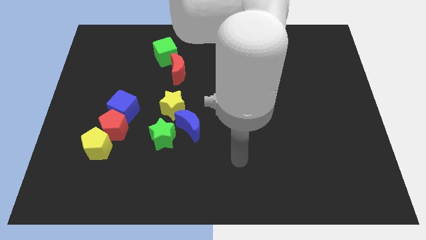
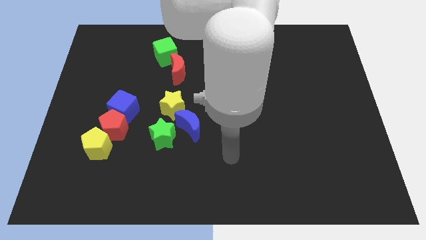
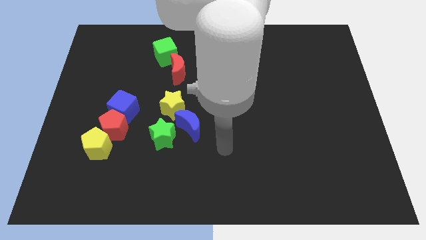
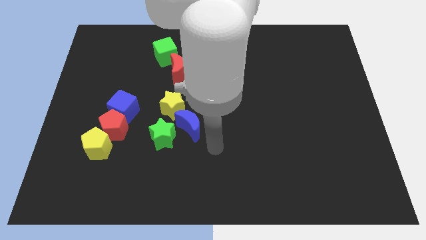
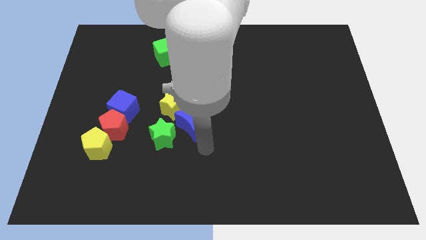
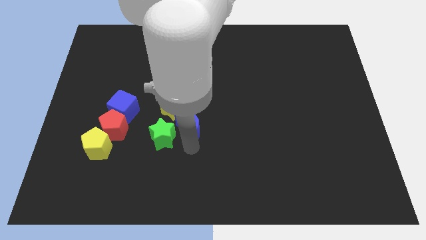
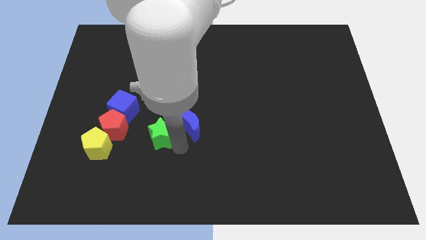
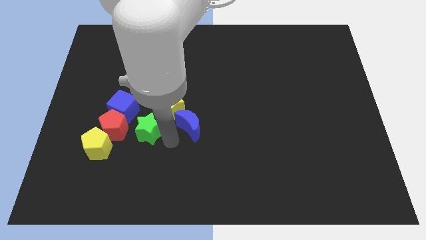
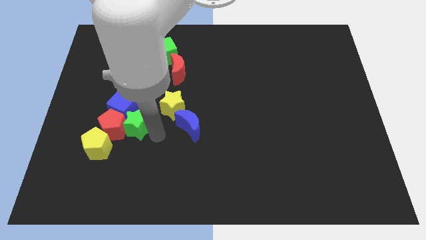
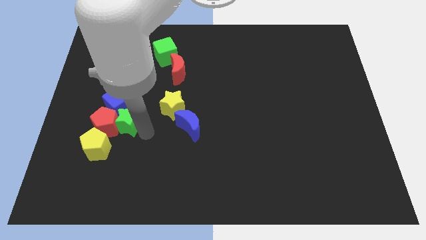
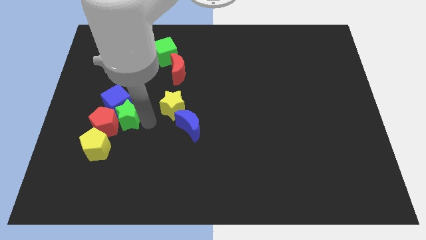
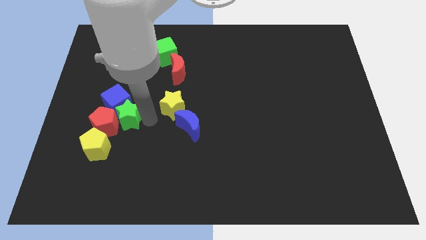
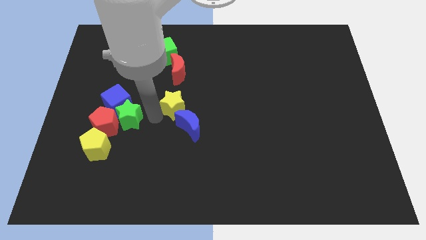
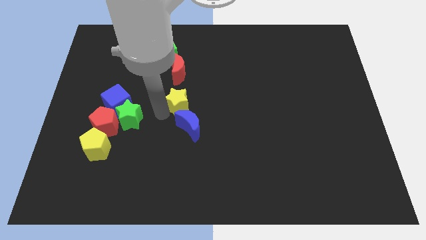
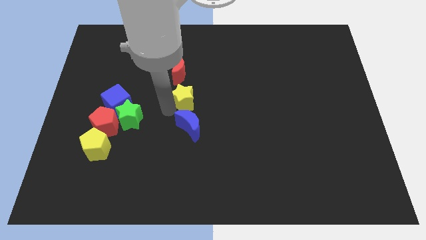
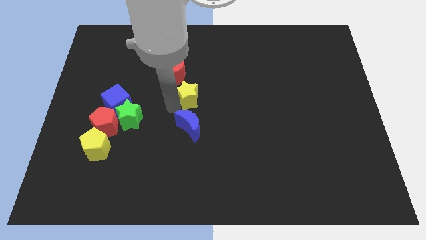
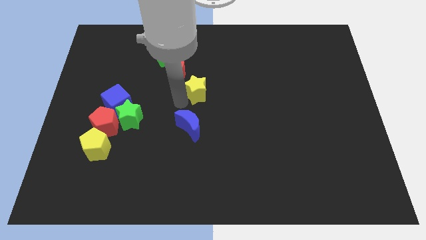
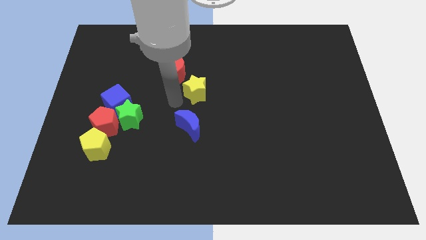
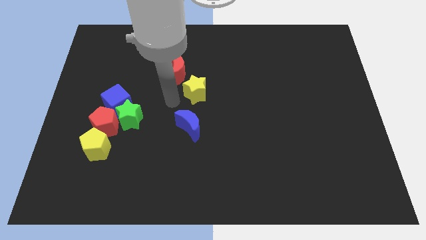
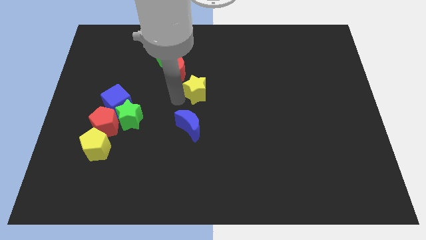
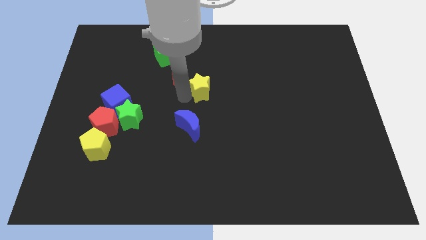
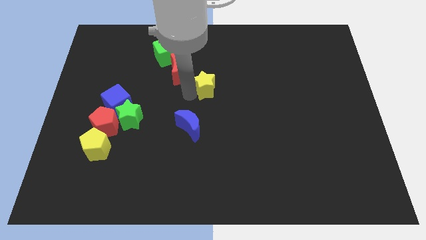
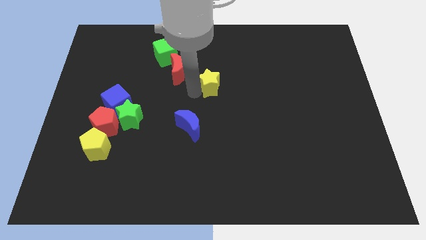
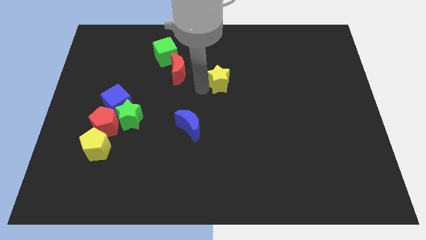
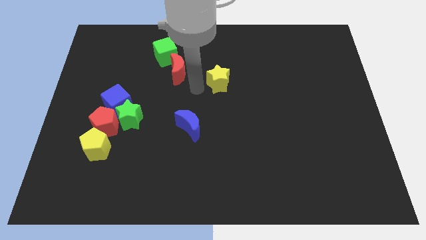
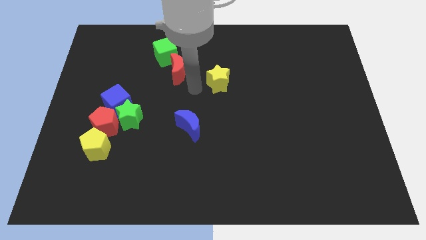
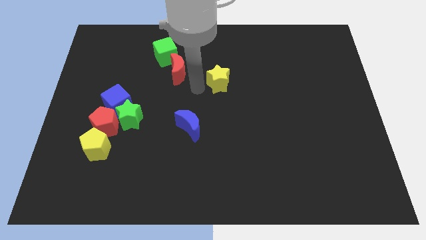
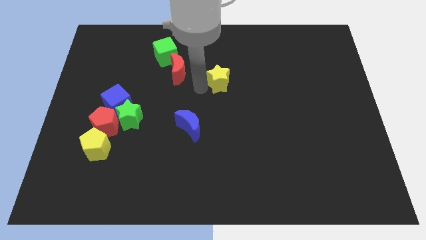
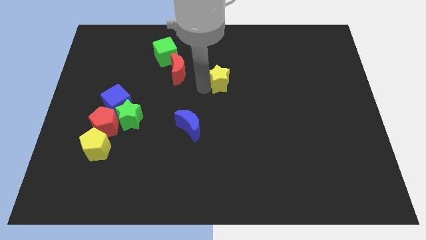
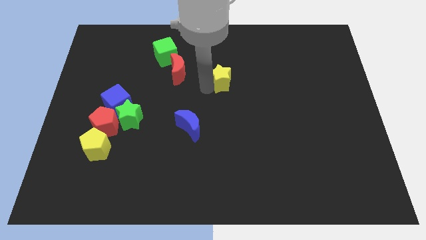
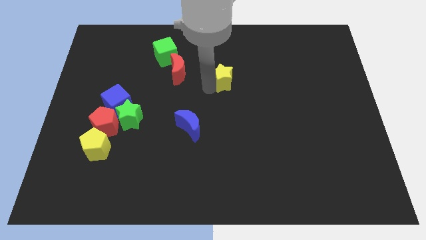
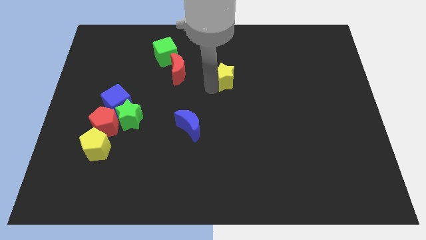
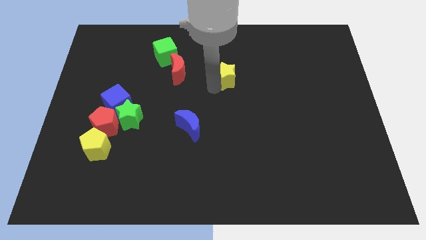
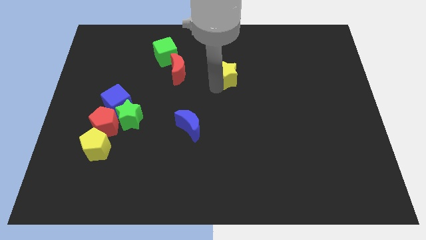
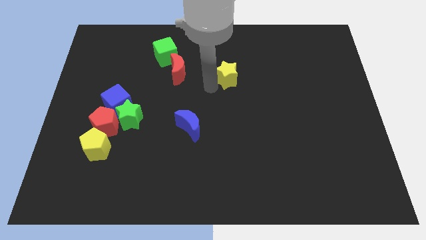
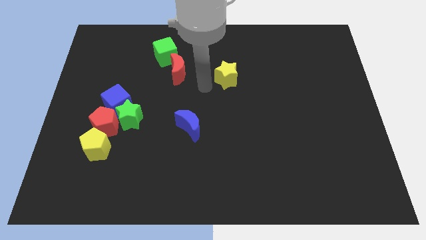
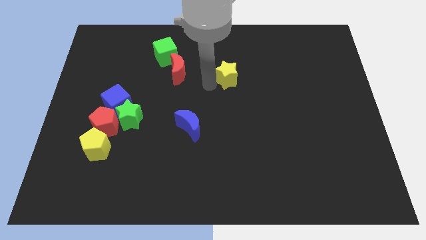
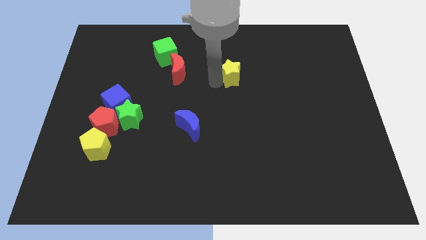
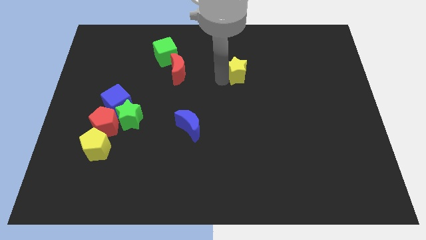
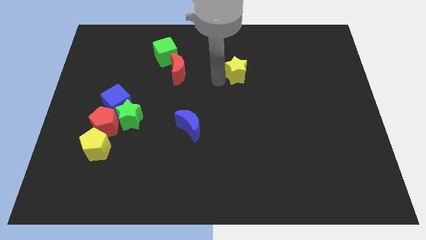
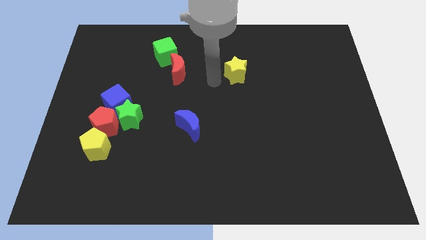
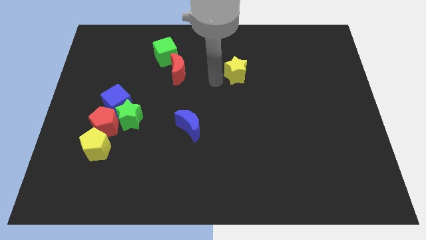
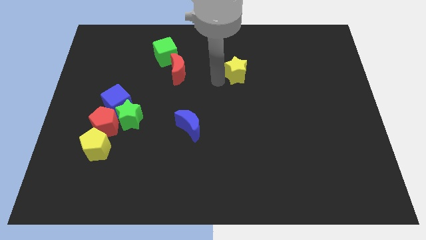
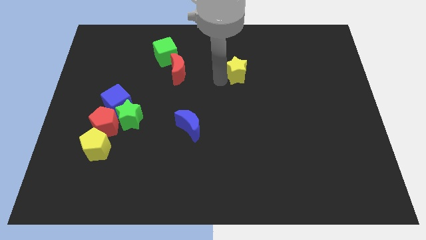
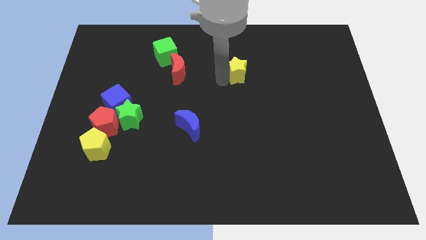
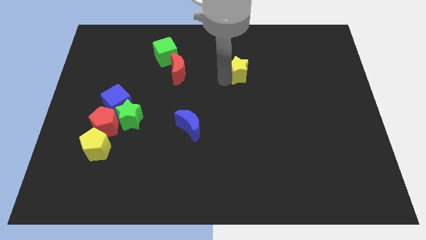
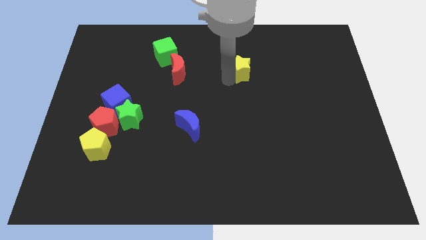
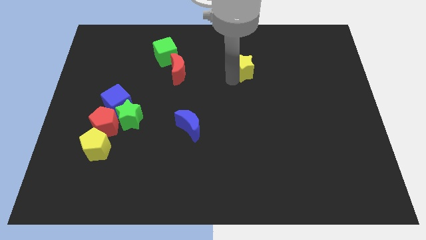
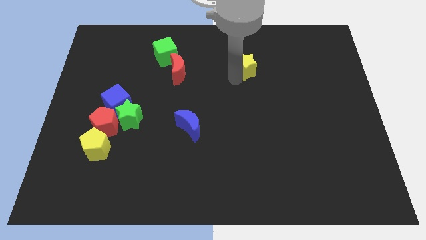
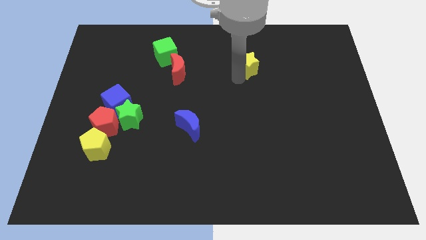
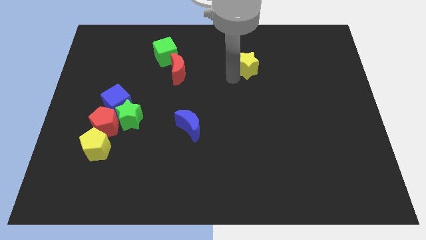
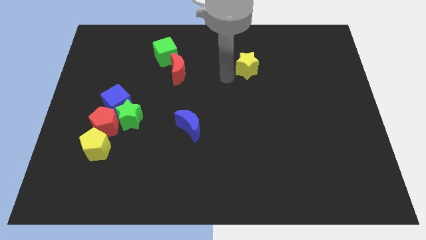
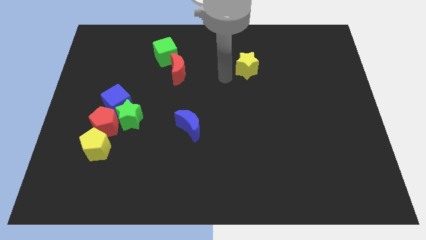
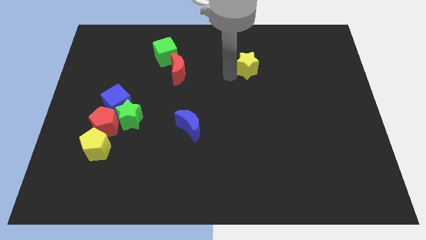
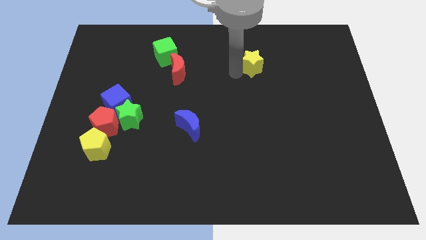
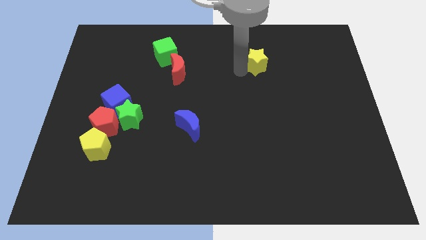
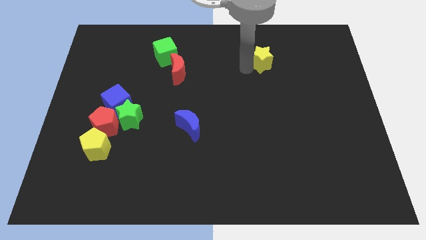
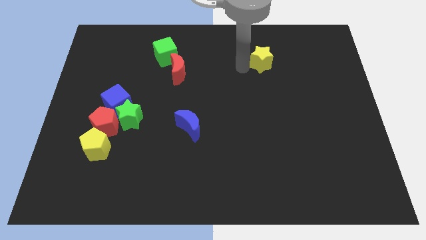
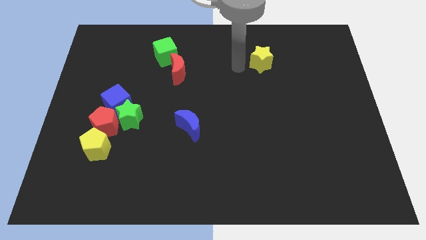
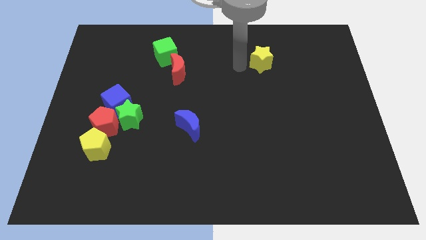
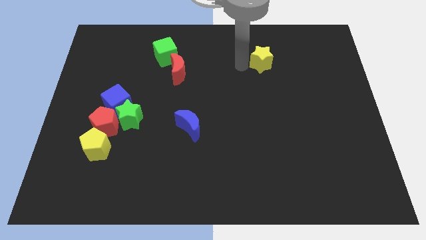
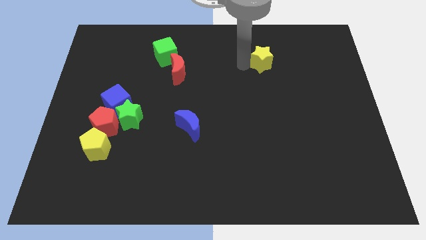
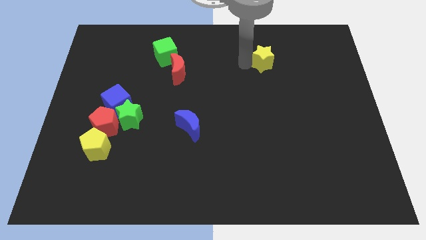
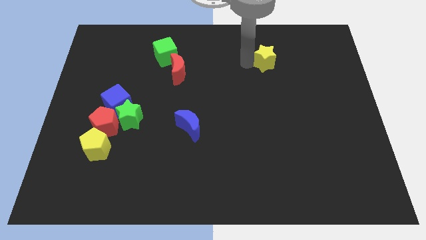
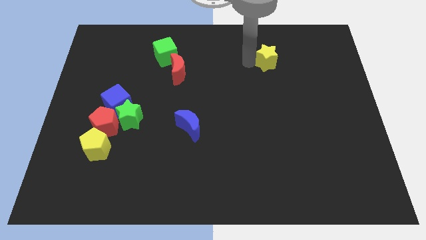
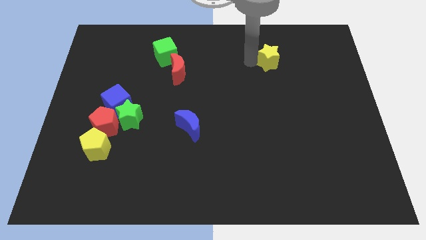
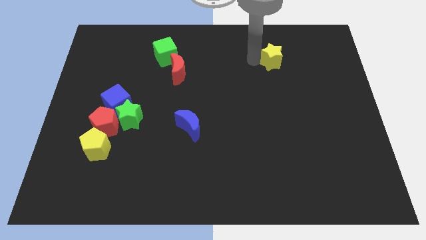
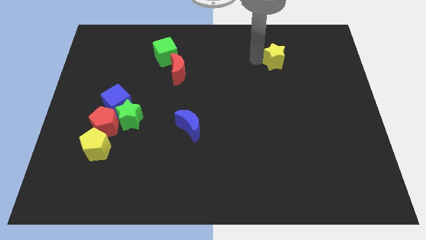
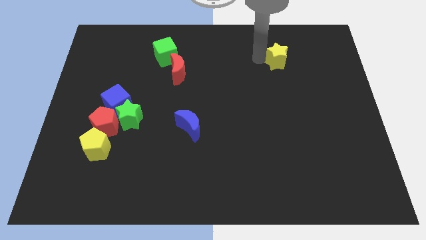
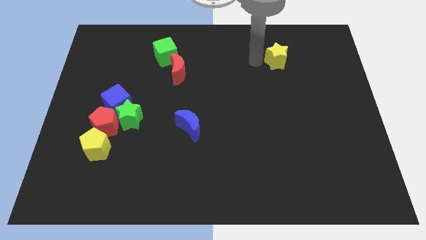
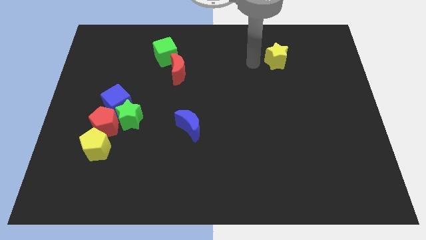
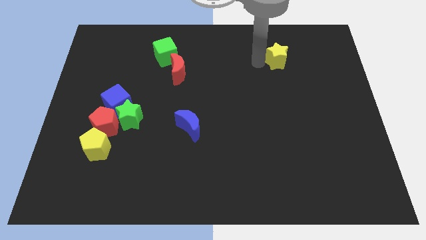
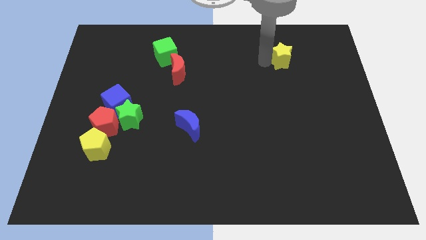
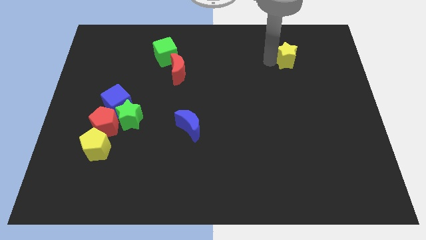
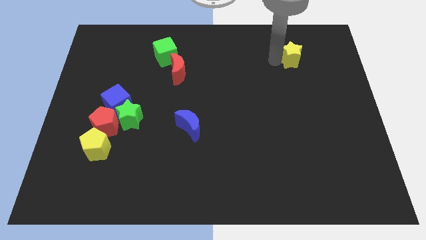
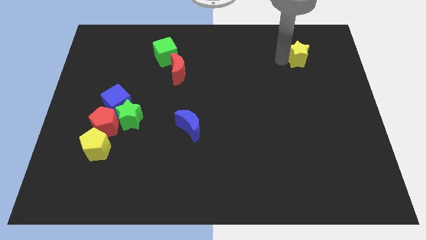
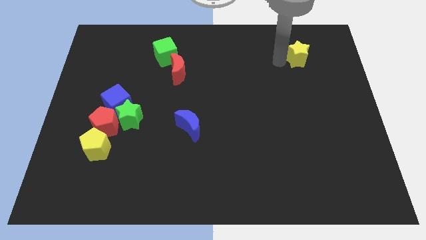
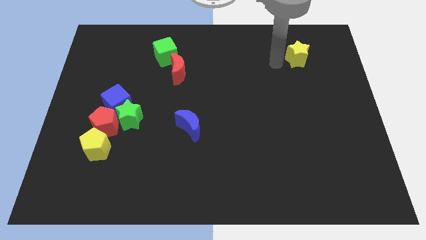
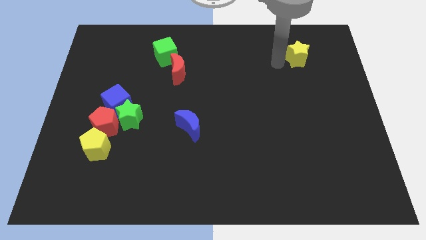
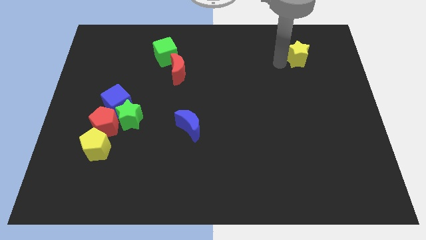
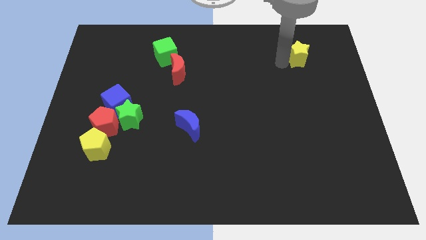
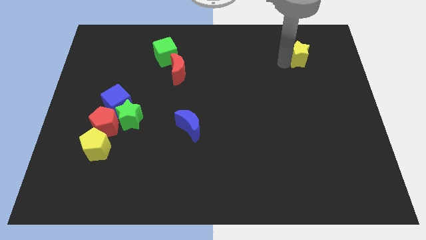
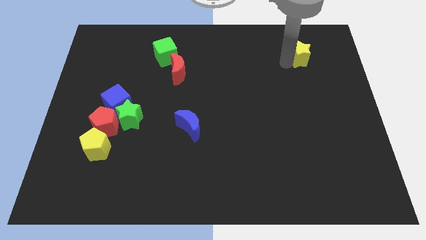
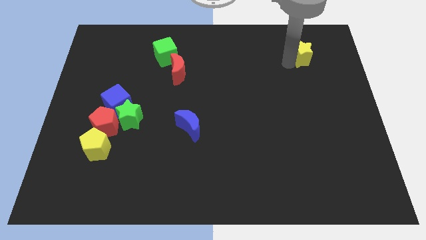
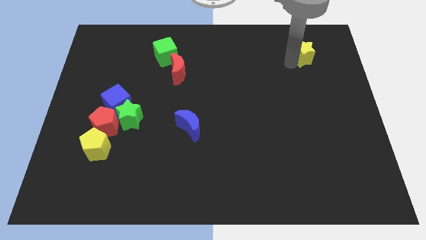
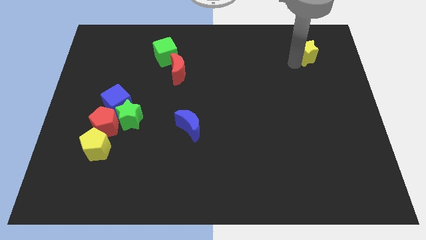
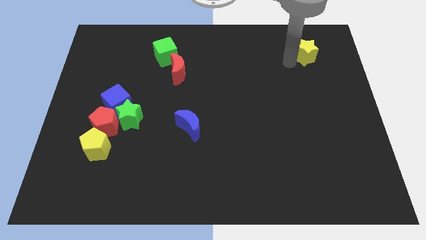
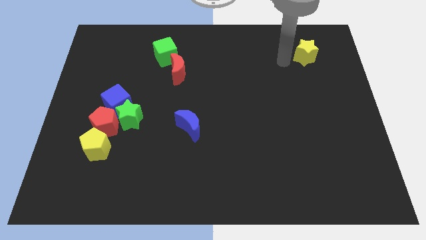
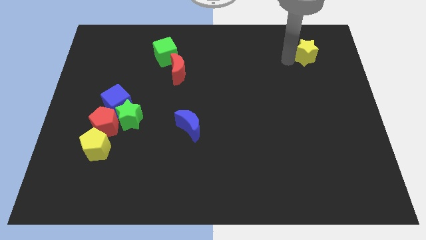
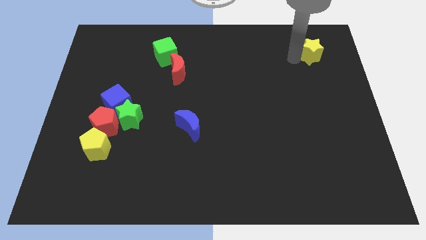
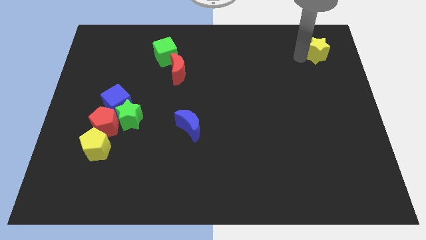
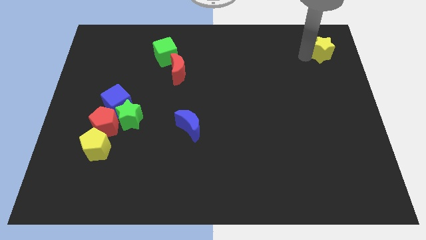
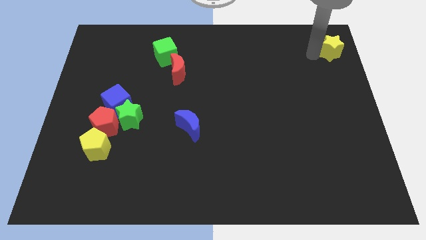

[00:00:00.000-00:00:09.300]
push the yellow star to the upper right corner
